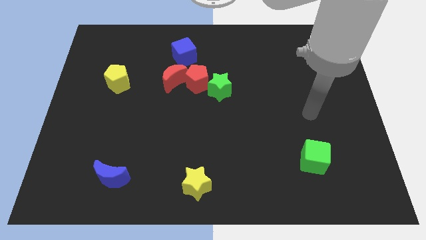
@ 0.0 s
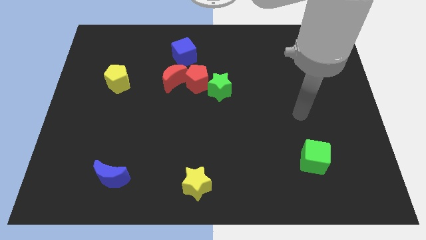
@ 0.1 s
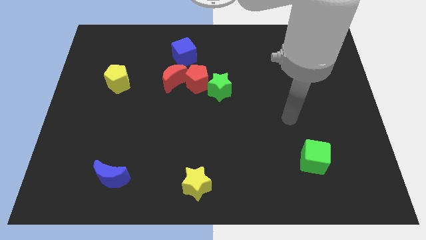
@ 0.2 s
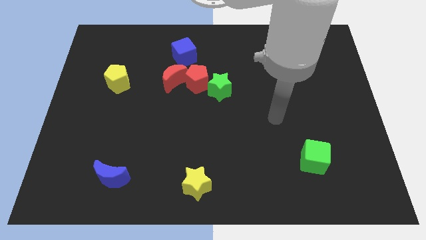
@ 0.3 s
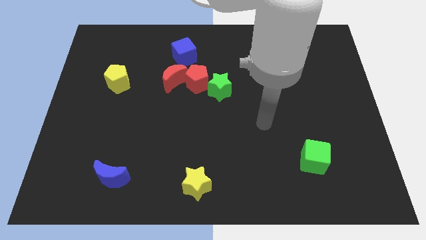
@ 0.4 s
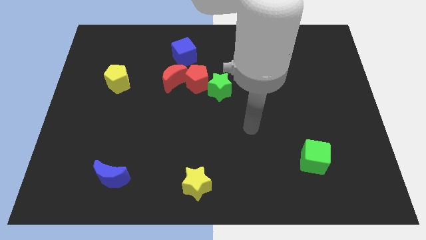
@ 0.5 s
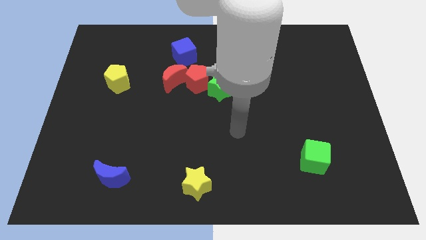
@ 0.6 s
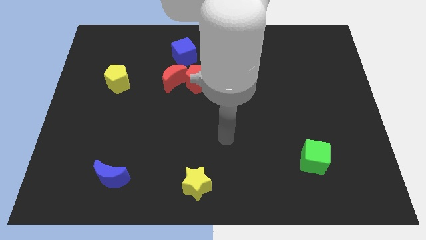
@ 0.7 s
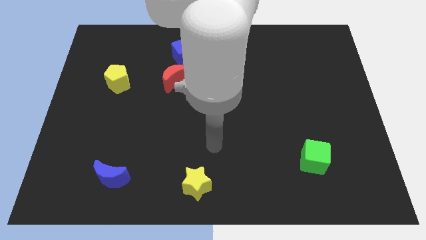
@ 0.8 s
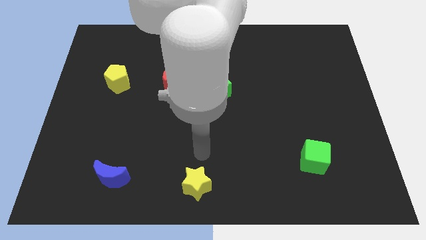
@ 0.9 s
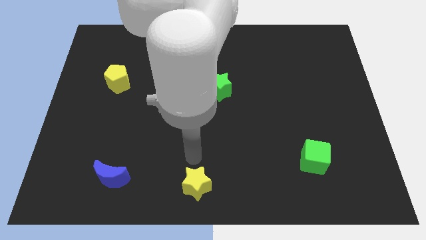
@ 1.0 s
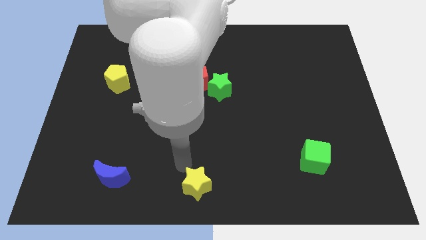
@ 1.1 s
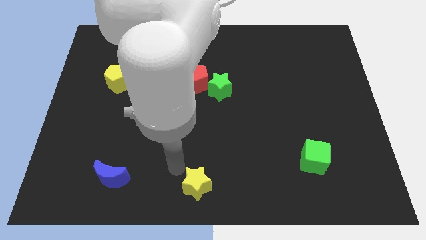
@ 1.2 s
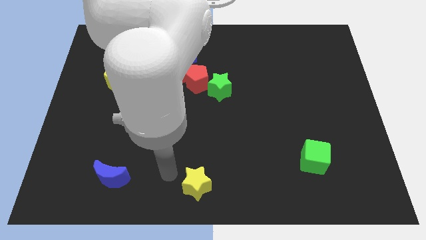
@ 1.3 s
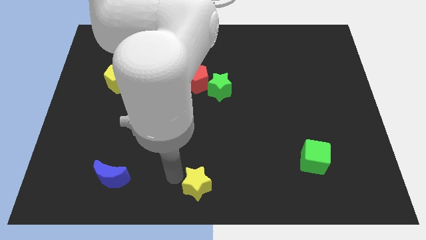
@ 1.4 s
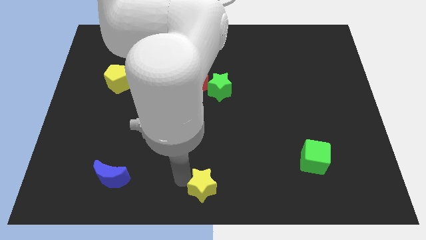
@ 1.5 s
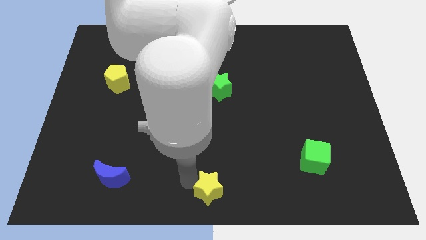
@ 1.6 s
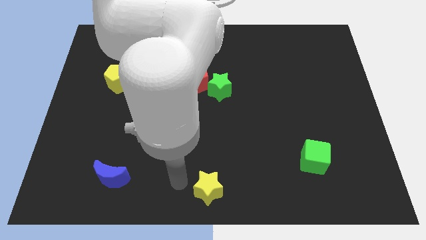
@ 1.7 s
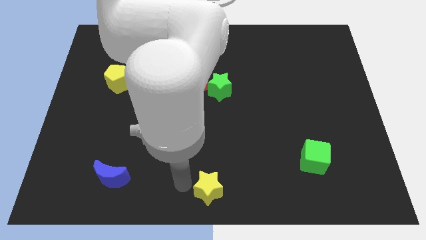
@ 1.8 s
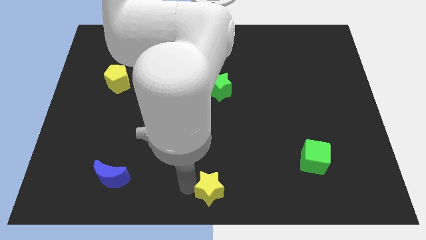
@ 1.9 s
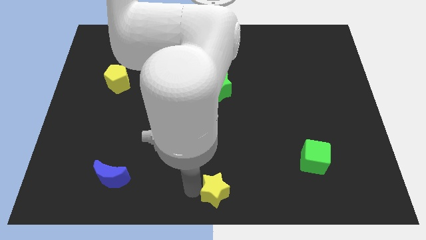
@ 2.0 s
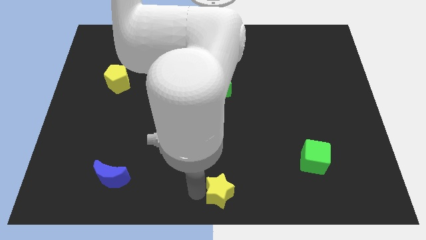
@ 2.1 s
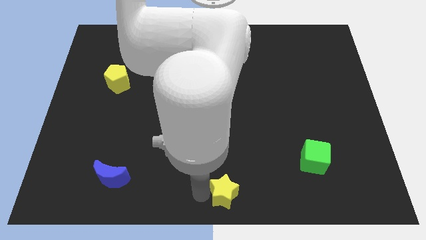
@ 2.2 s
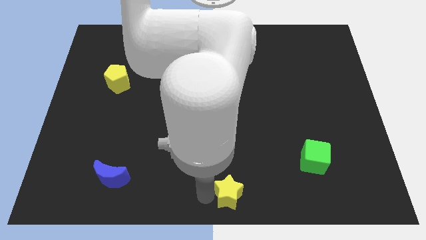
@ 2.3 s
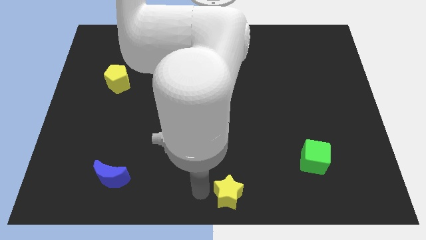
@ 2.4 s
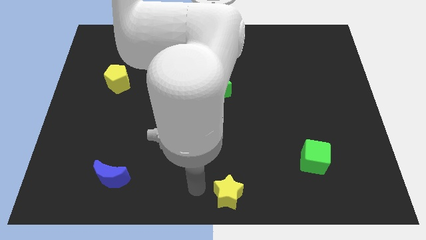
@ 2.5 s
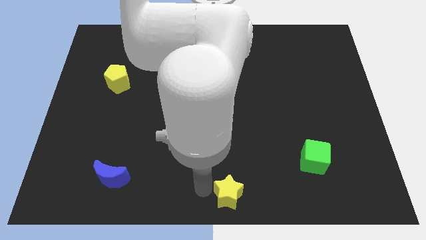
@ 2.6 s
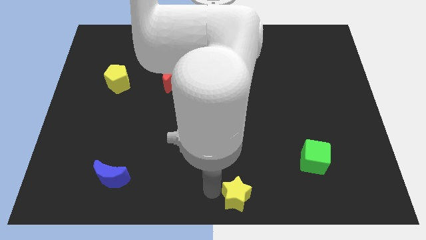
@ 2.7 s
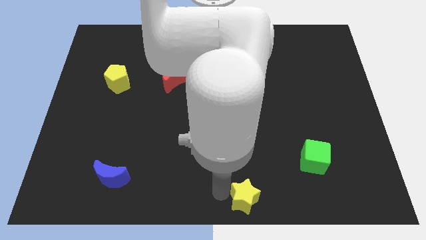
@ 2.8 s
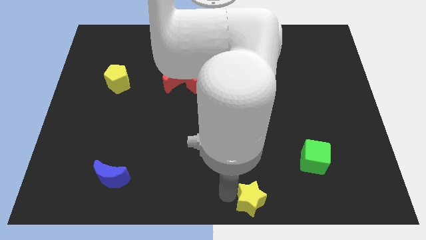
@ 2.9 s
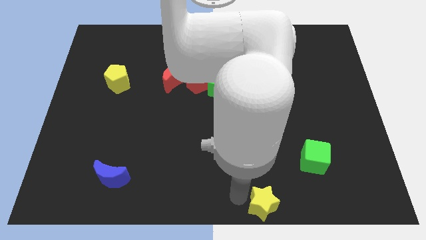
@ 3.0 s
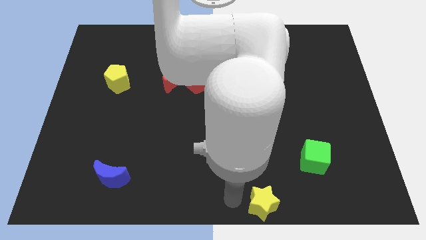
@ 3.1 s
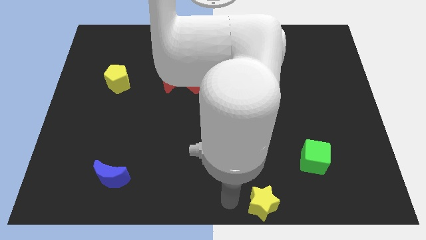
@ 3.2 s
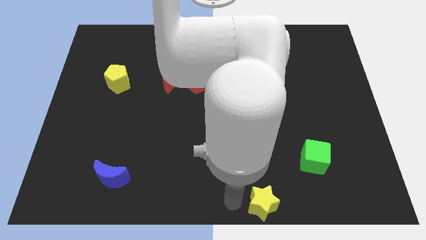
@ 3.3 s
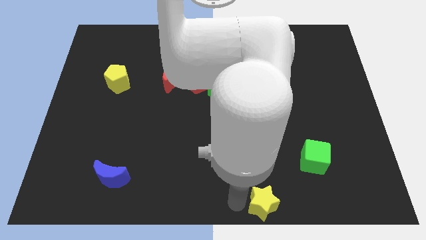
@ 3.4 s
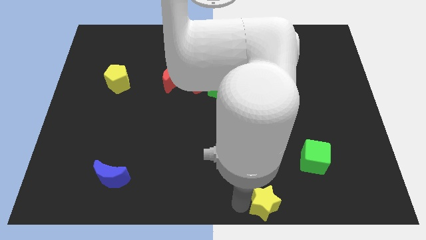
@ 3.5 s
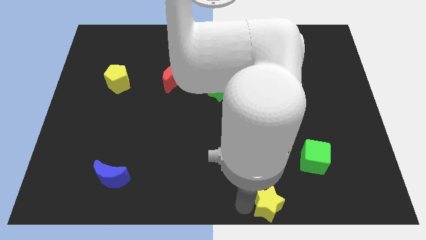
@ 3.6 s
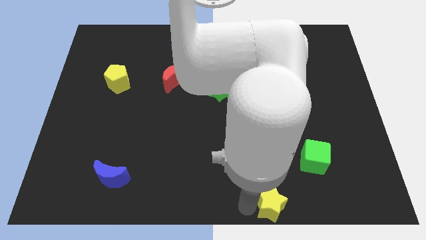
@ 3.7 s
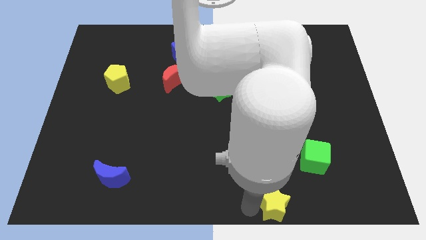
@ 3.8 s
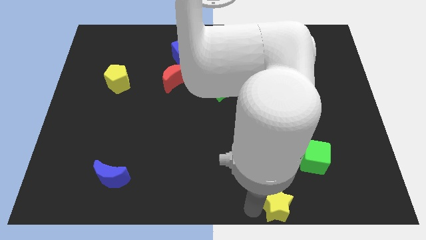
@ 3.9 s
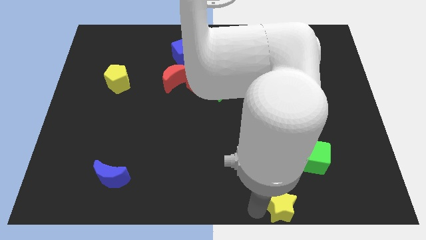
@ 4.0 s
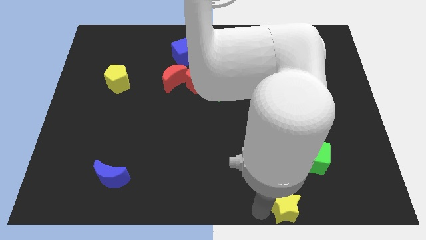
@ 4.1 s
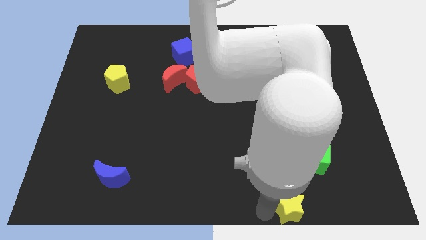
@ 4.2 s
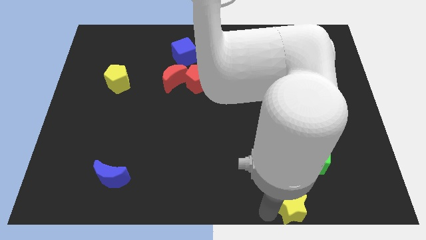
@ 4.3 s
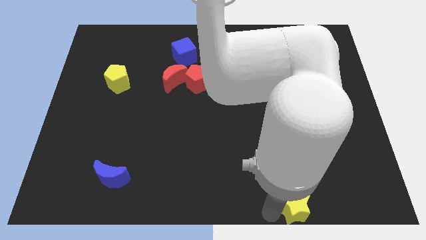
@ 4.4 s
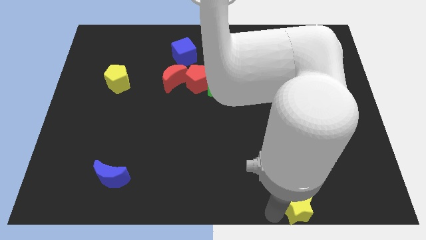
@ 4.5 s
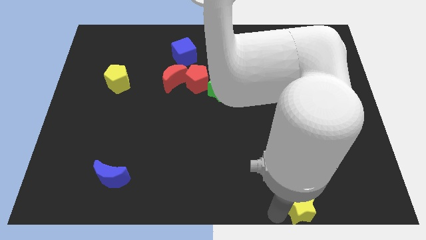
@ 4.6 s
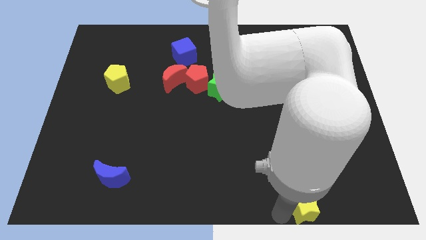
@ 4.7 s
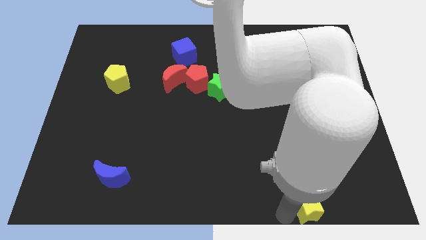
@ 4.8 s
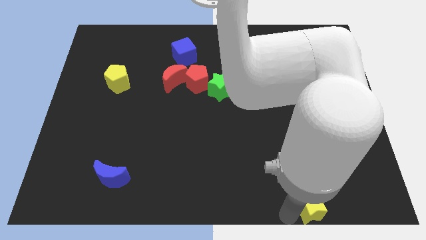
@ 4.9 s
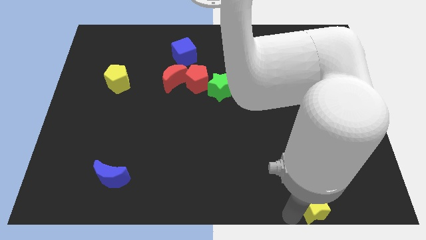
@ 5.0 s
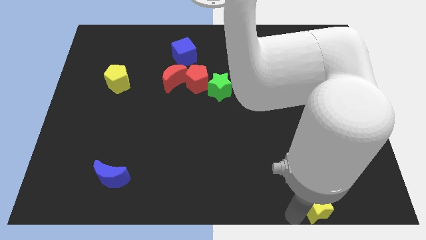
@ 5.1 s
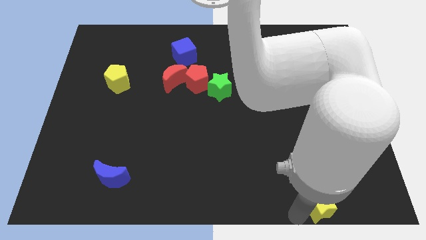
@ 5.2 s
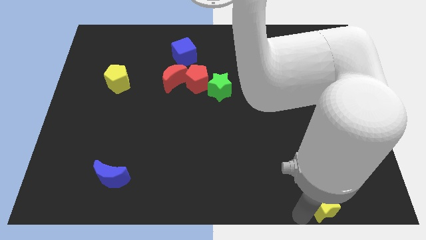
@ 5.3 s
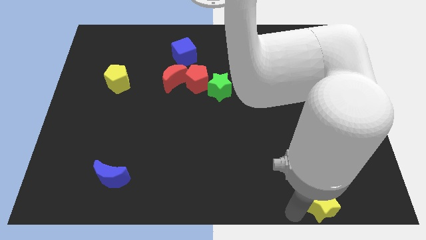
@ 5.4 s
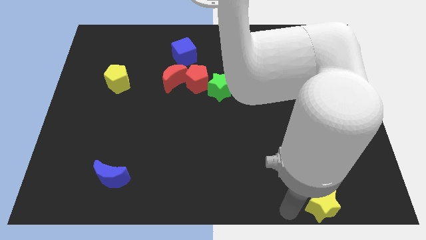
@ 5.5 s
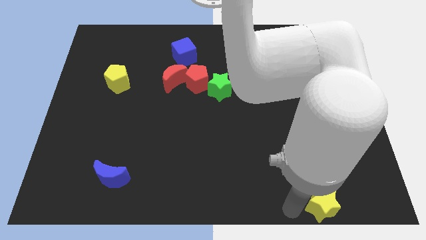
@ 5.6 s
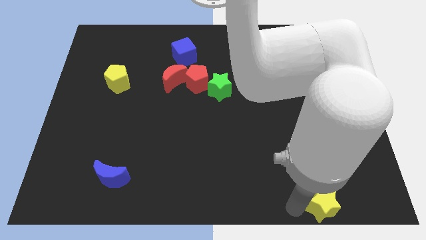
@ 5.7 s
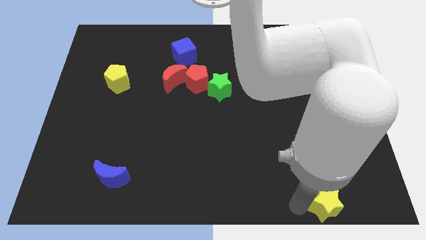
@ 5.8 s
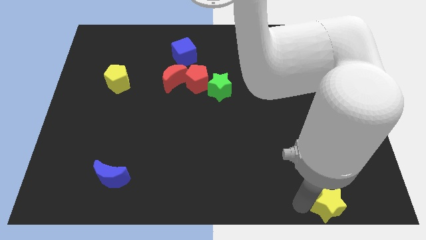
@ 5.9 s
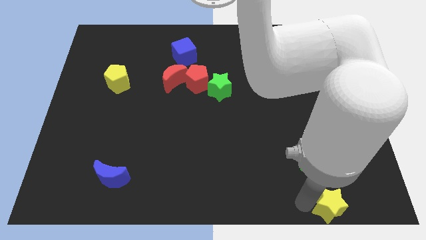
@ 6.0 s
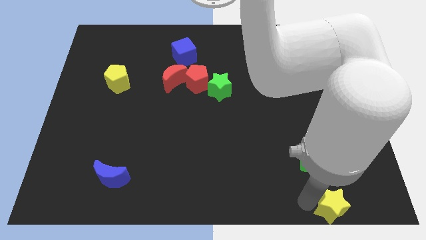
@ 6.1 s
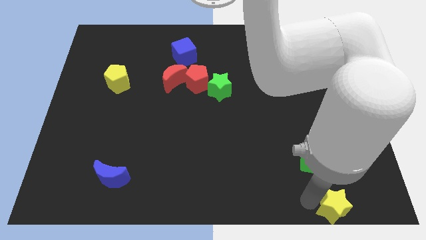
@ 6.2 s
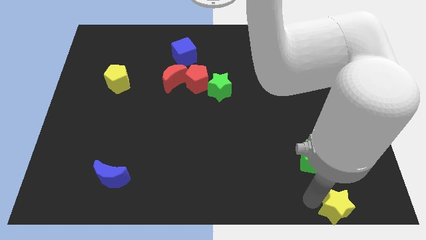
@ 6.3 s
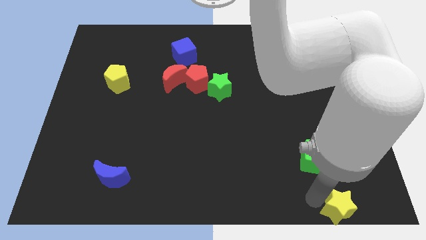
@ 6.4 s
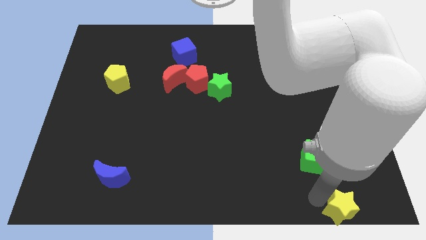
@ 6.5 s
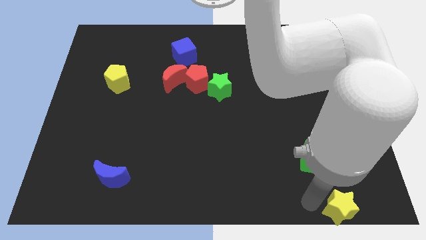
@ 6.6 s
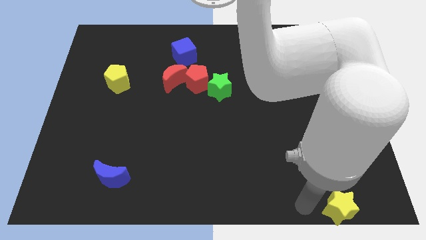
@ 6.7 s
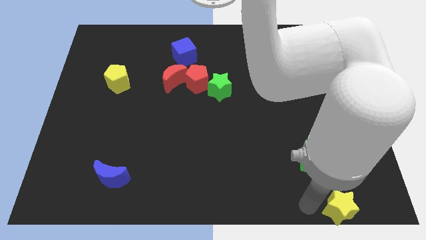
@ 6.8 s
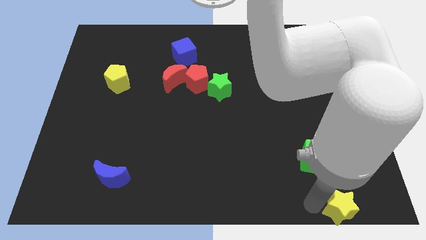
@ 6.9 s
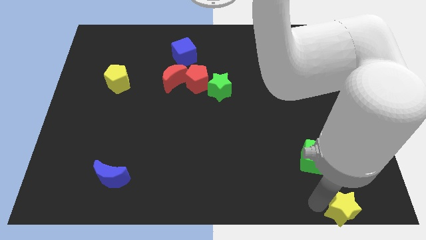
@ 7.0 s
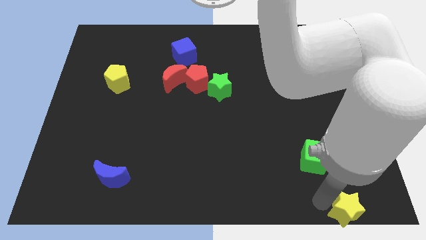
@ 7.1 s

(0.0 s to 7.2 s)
push the yellow star to the bottom right of the board
